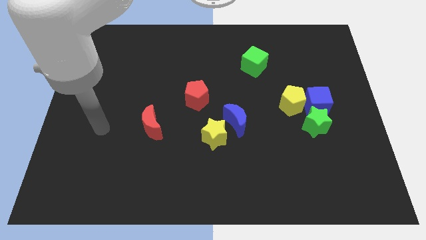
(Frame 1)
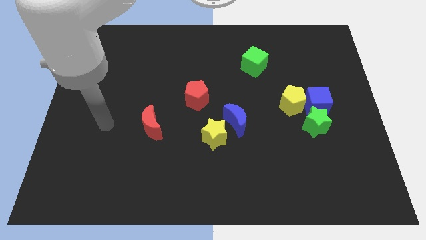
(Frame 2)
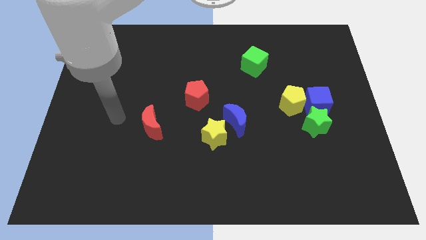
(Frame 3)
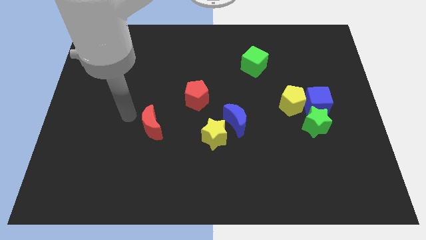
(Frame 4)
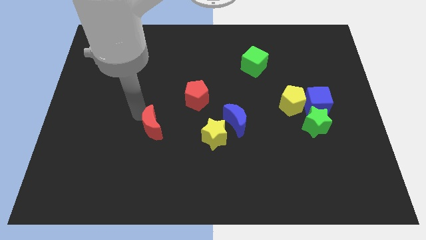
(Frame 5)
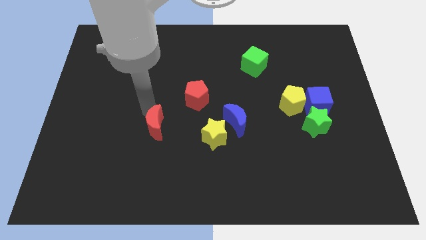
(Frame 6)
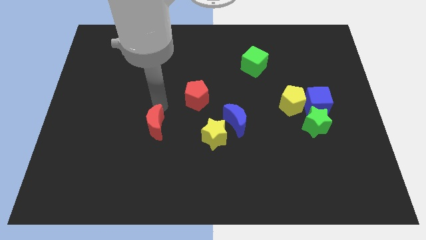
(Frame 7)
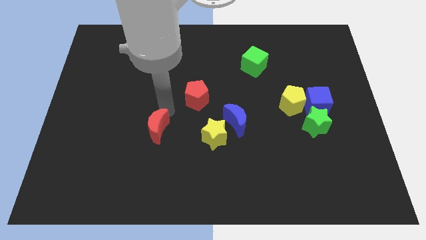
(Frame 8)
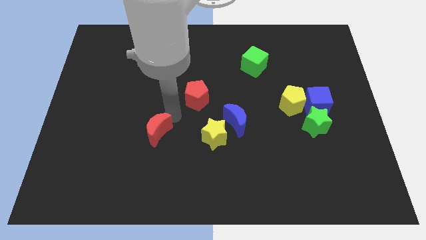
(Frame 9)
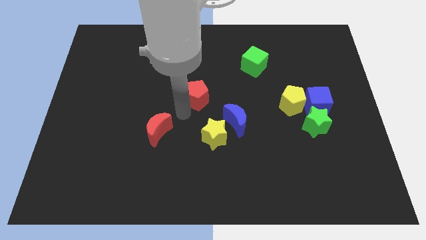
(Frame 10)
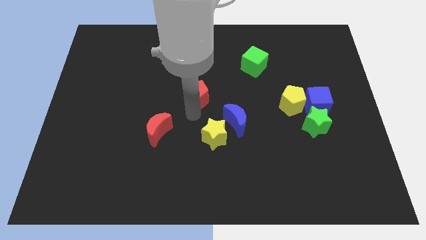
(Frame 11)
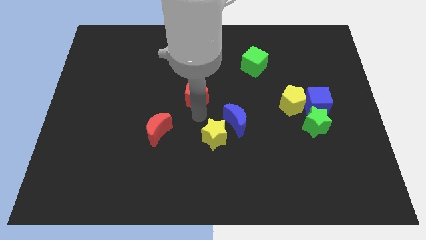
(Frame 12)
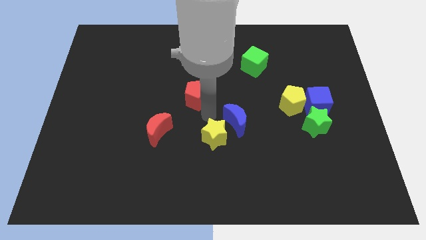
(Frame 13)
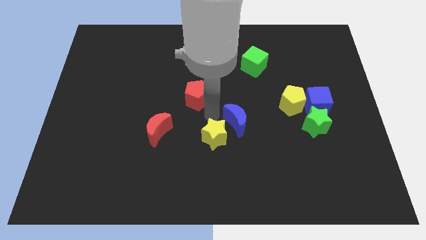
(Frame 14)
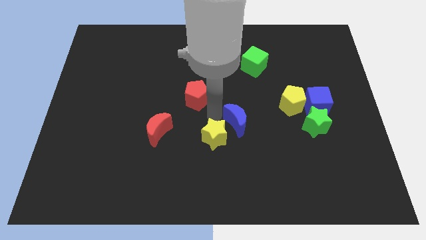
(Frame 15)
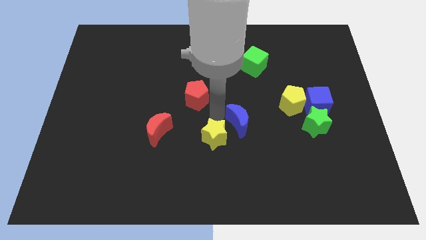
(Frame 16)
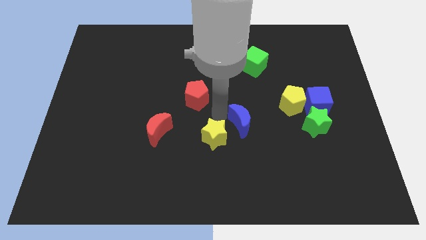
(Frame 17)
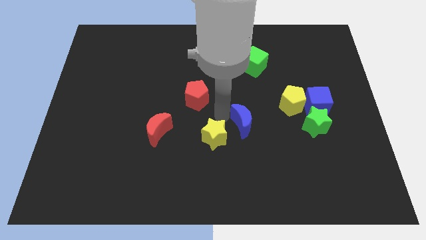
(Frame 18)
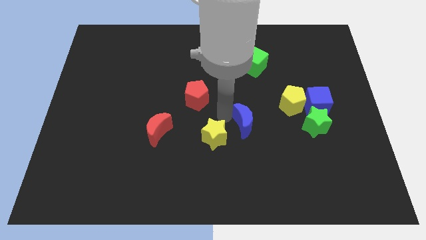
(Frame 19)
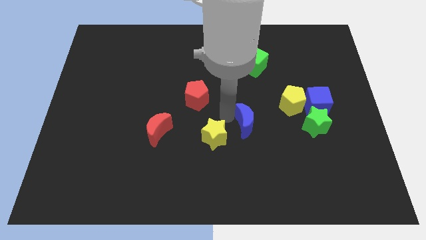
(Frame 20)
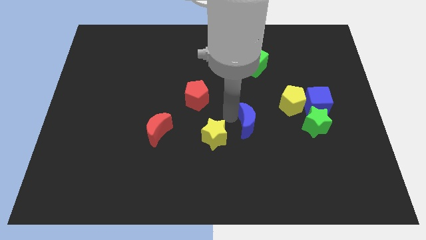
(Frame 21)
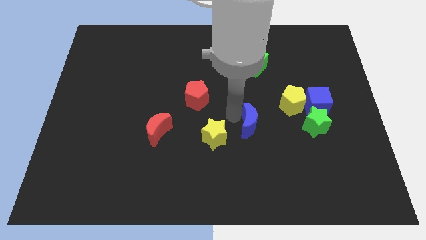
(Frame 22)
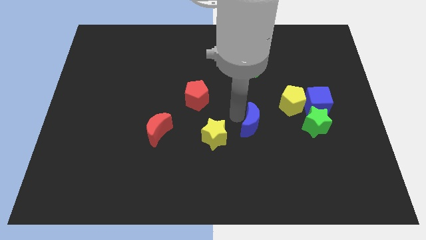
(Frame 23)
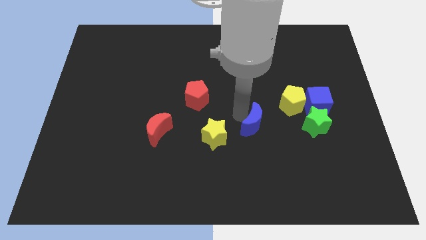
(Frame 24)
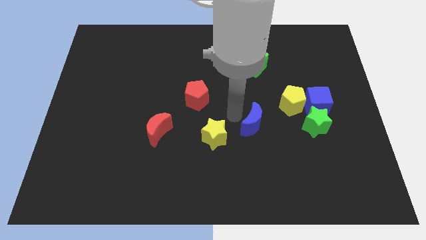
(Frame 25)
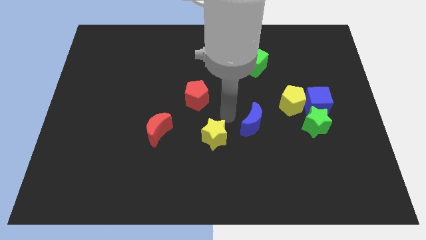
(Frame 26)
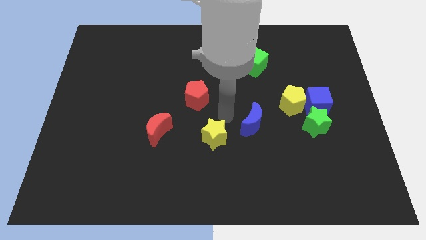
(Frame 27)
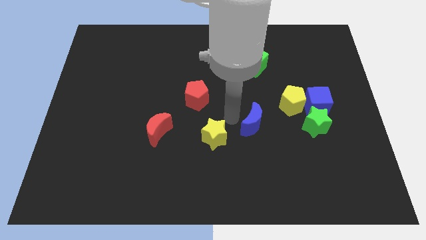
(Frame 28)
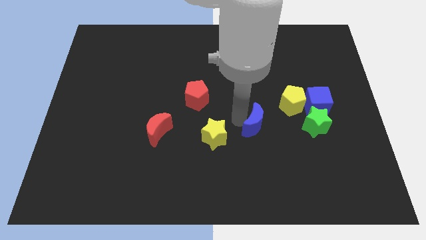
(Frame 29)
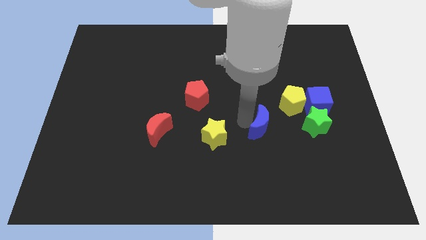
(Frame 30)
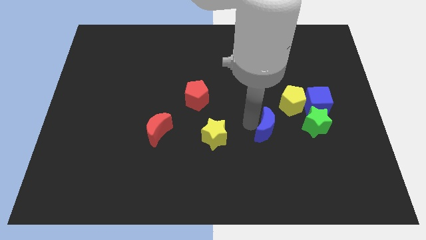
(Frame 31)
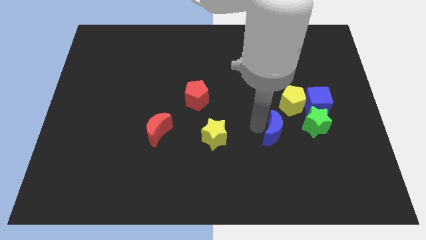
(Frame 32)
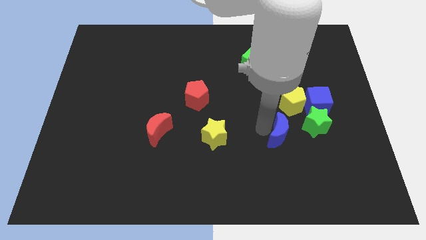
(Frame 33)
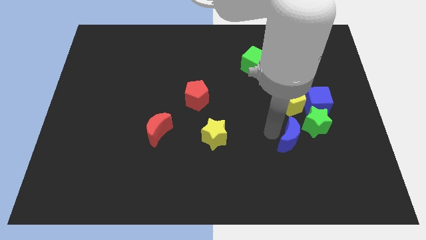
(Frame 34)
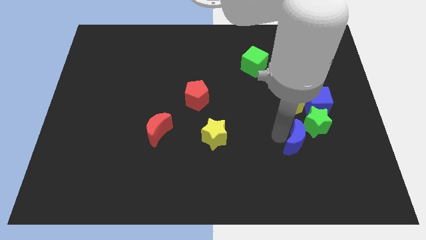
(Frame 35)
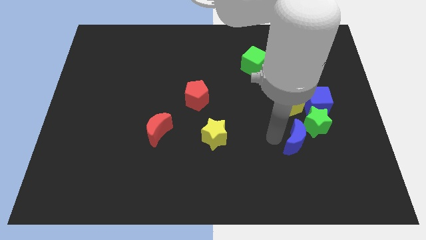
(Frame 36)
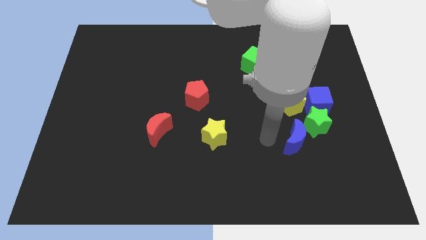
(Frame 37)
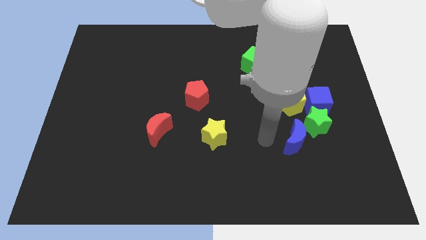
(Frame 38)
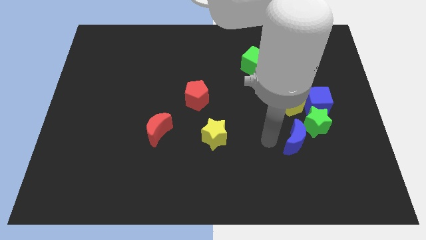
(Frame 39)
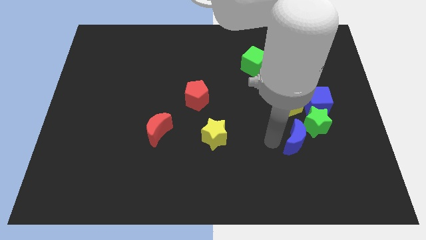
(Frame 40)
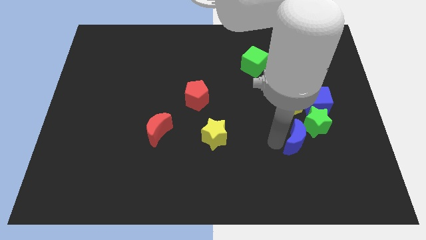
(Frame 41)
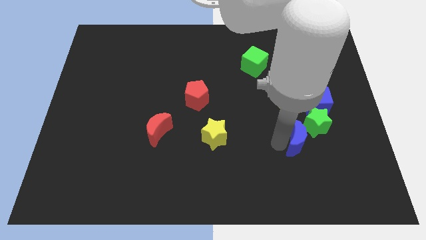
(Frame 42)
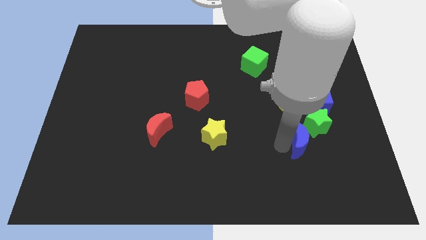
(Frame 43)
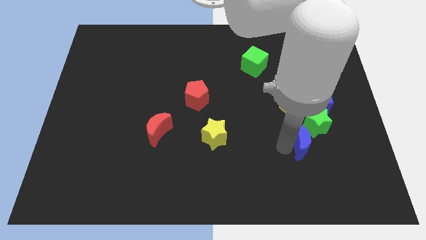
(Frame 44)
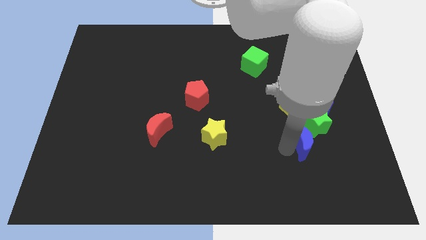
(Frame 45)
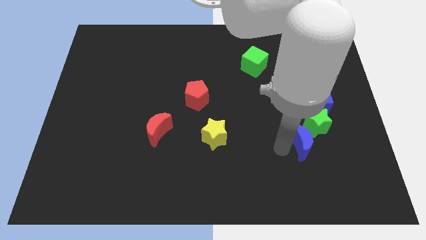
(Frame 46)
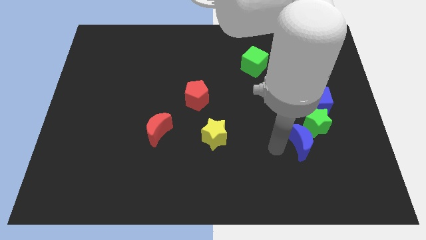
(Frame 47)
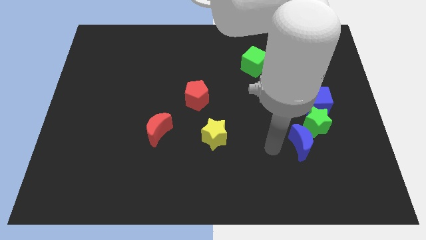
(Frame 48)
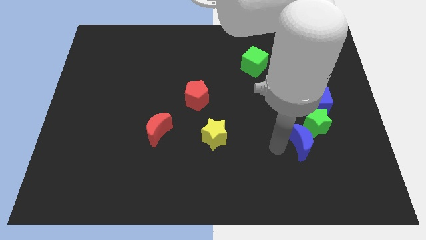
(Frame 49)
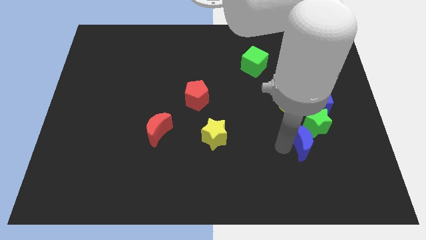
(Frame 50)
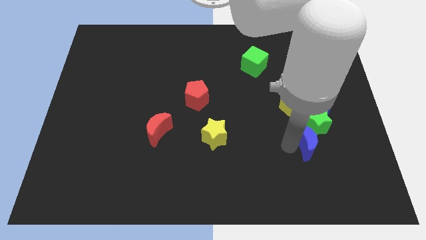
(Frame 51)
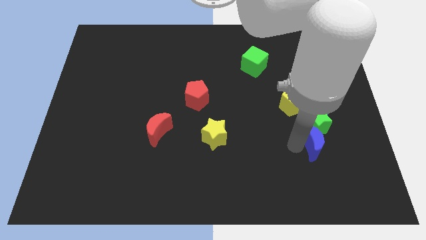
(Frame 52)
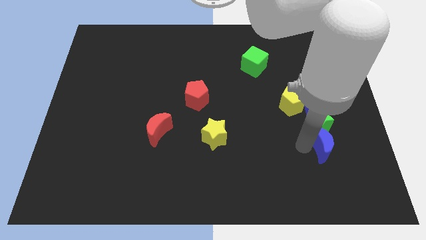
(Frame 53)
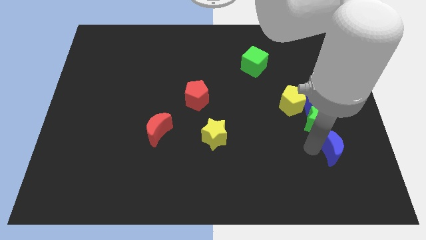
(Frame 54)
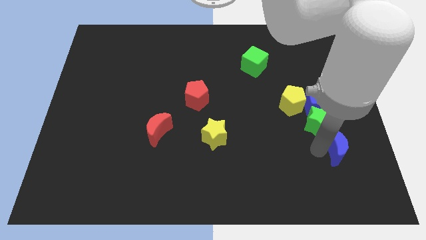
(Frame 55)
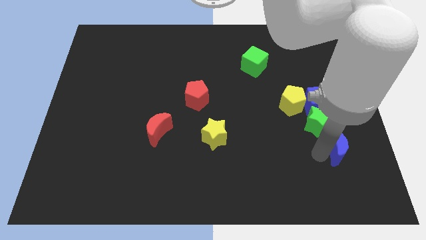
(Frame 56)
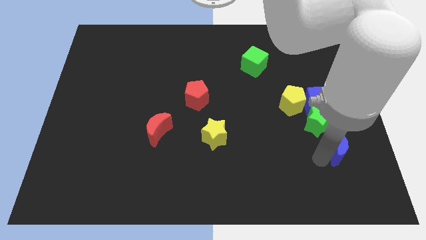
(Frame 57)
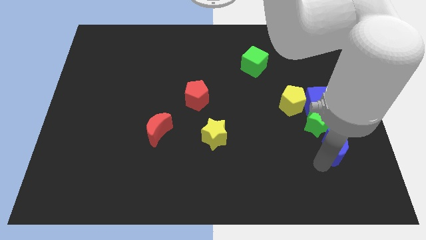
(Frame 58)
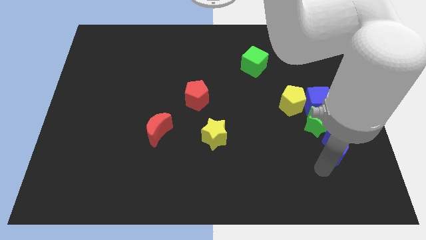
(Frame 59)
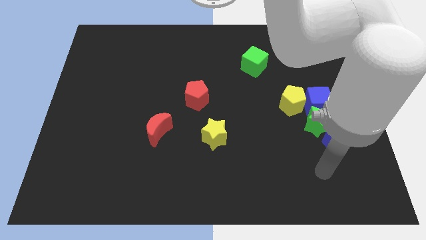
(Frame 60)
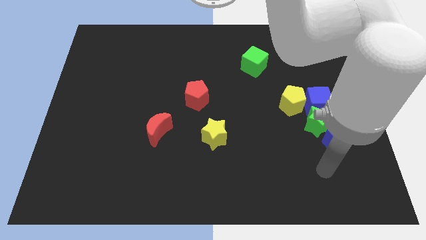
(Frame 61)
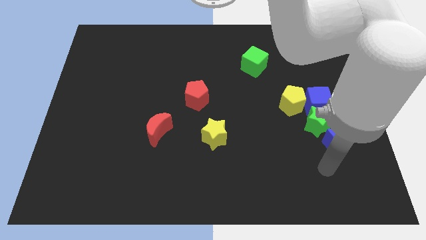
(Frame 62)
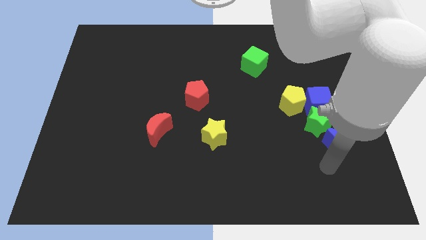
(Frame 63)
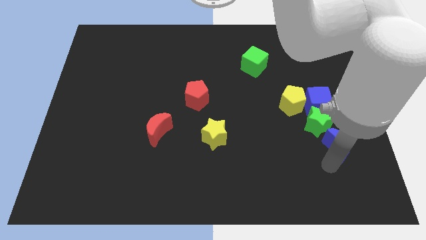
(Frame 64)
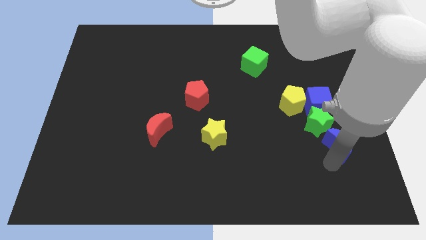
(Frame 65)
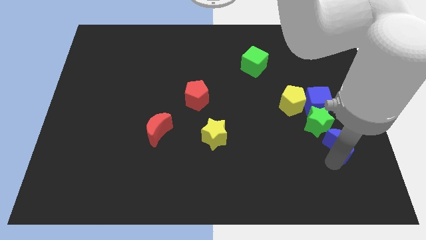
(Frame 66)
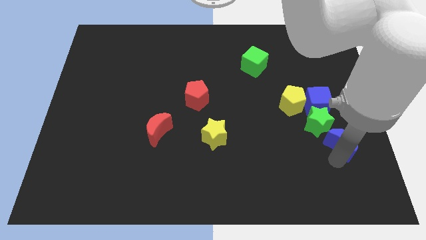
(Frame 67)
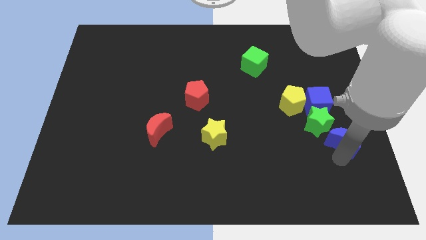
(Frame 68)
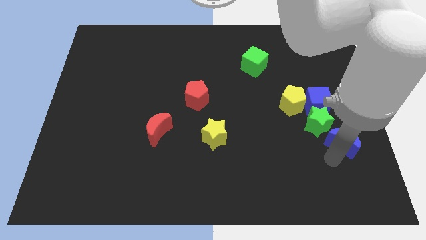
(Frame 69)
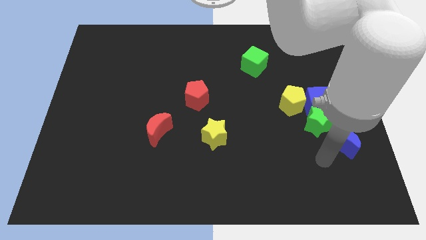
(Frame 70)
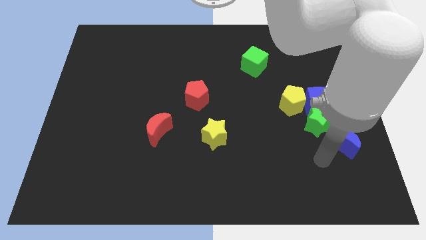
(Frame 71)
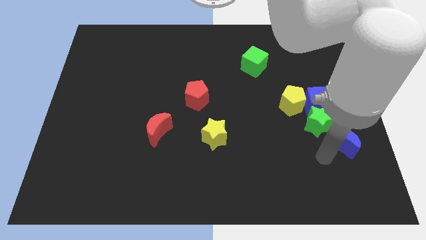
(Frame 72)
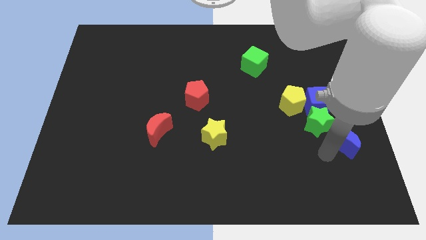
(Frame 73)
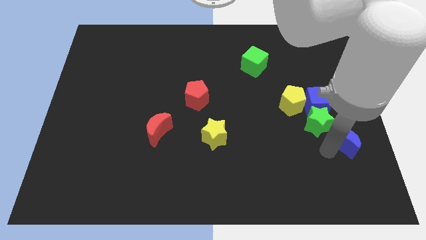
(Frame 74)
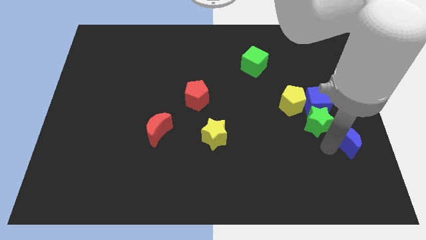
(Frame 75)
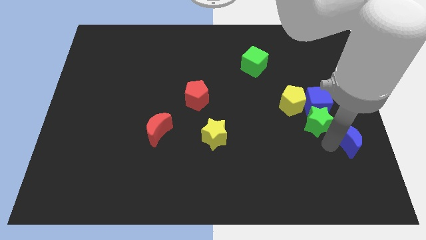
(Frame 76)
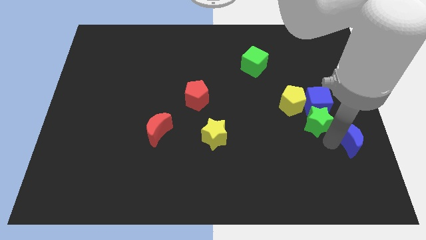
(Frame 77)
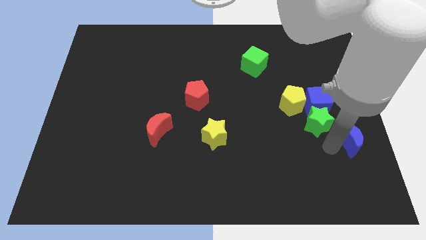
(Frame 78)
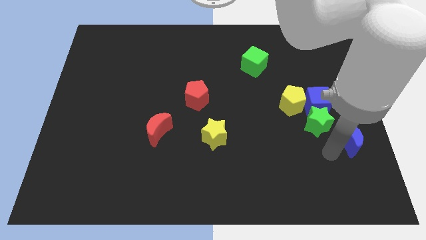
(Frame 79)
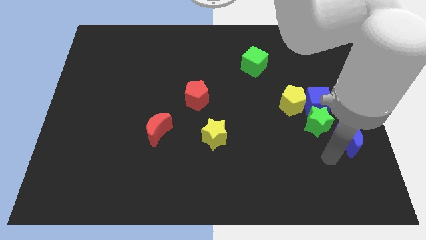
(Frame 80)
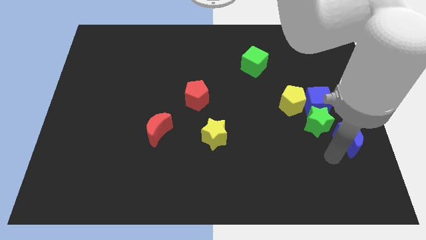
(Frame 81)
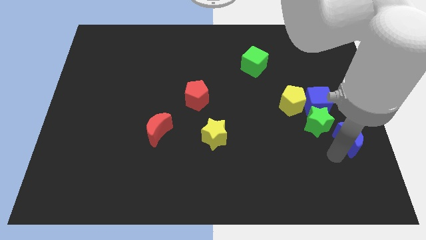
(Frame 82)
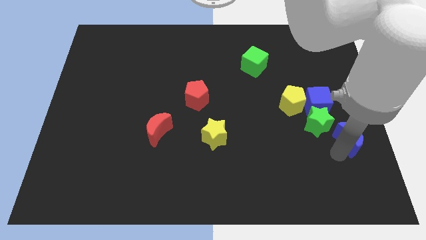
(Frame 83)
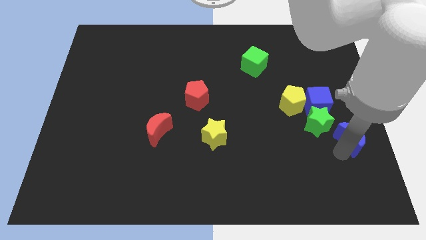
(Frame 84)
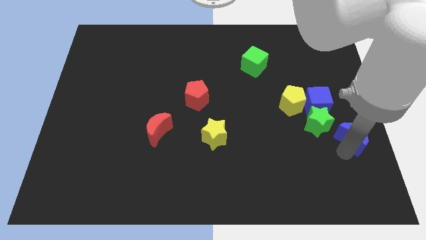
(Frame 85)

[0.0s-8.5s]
slide the blue moon to the right side of the board
